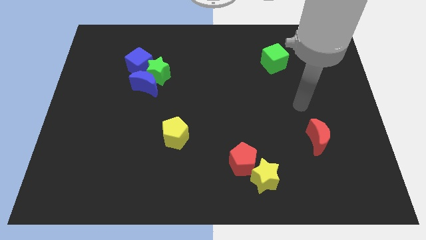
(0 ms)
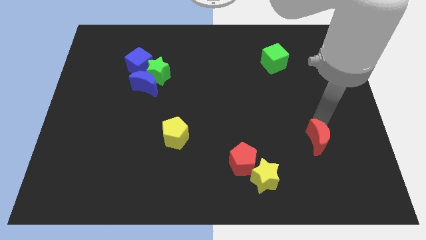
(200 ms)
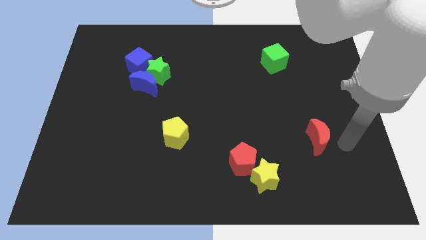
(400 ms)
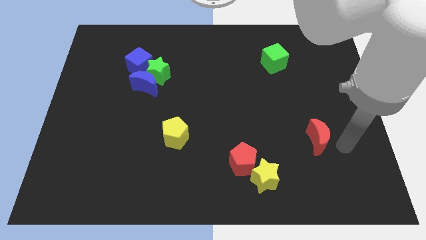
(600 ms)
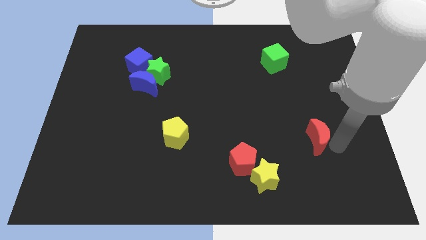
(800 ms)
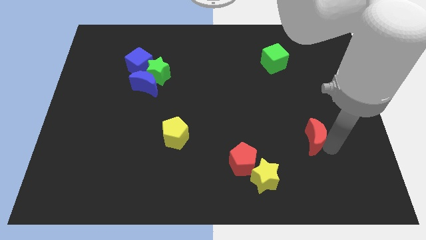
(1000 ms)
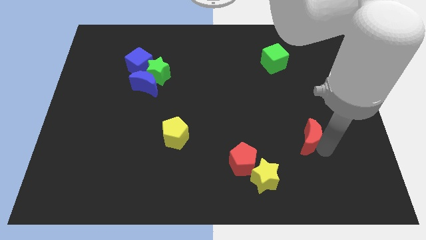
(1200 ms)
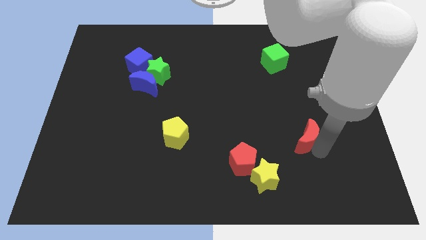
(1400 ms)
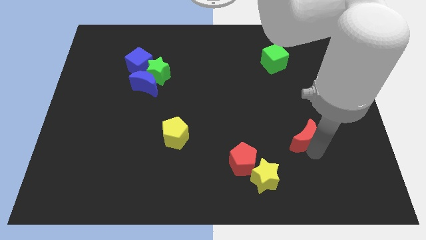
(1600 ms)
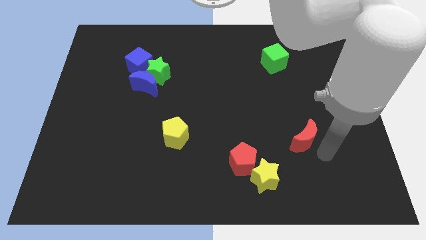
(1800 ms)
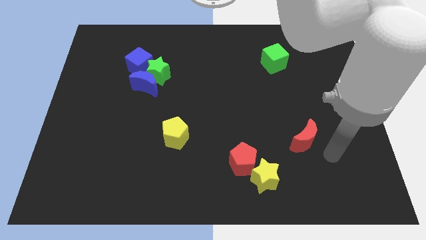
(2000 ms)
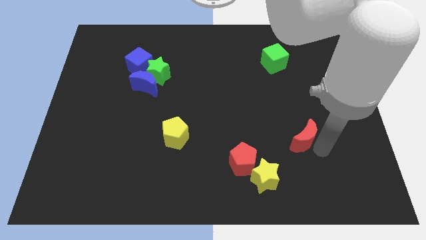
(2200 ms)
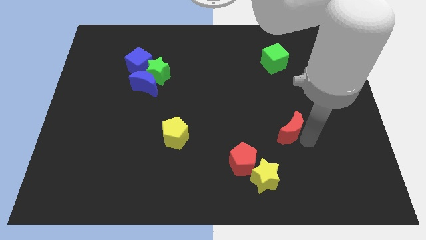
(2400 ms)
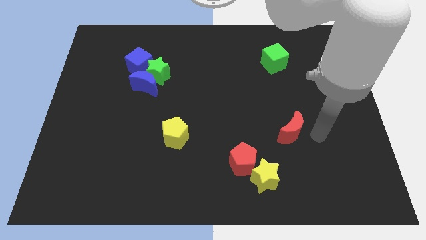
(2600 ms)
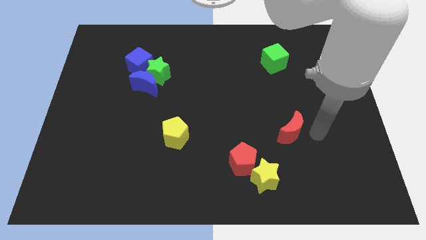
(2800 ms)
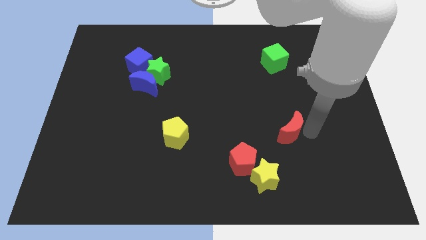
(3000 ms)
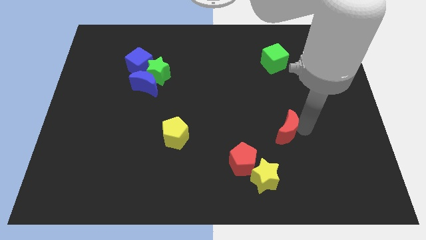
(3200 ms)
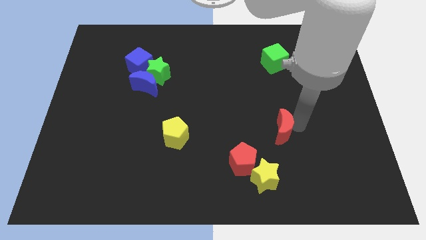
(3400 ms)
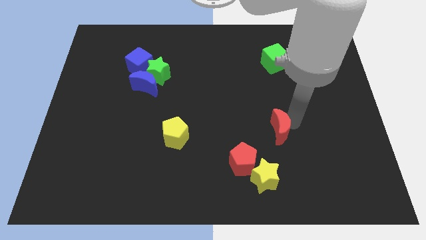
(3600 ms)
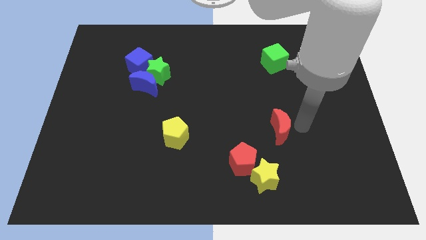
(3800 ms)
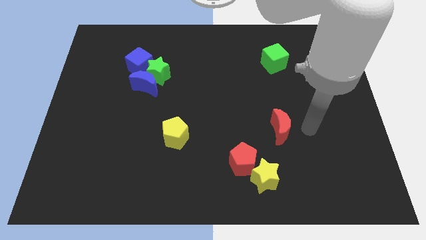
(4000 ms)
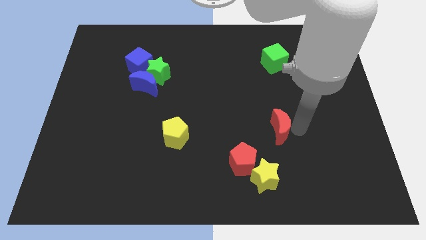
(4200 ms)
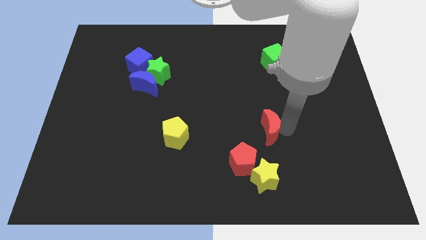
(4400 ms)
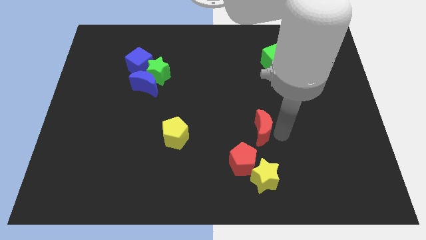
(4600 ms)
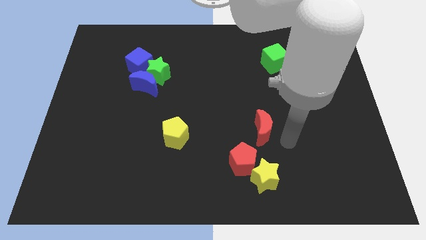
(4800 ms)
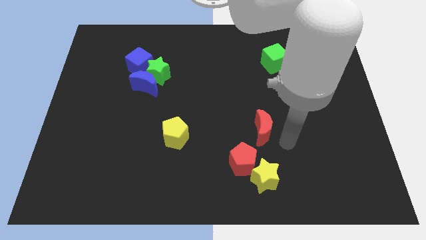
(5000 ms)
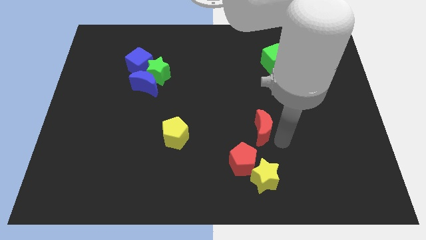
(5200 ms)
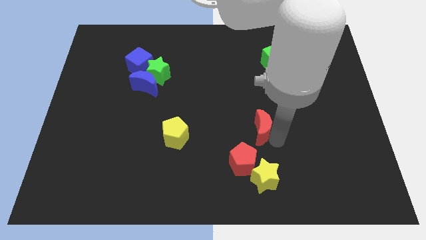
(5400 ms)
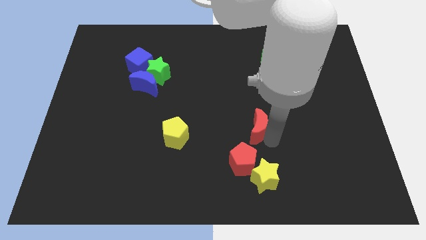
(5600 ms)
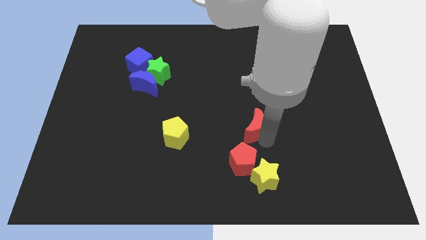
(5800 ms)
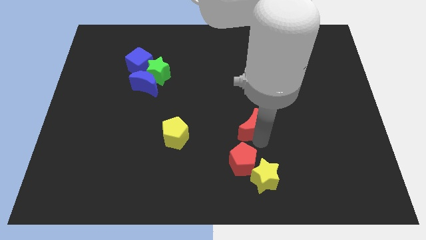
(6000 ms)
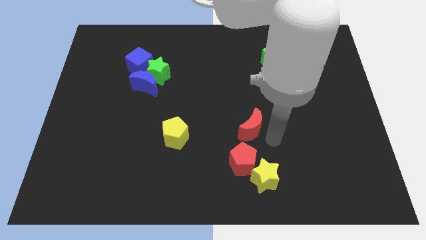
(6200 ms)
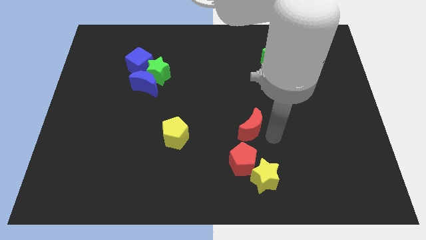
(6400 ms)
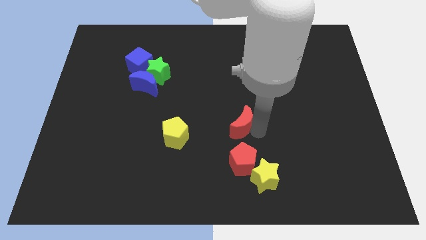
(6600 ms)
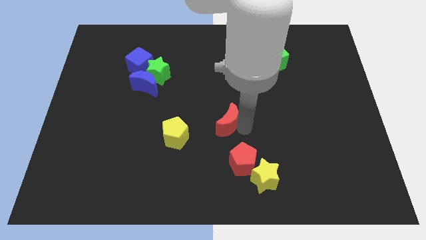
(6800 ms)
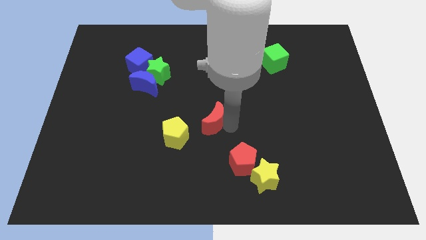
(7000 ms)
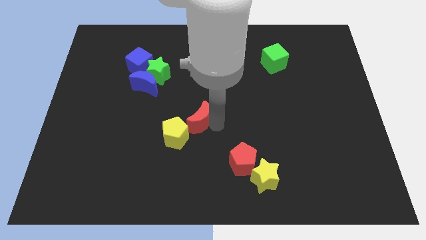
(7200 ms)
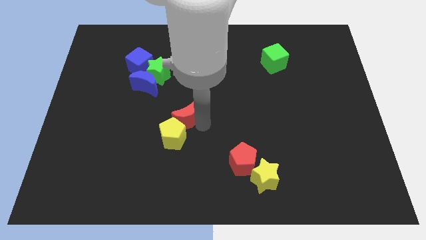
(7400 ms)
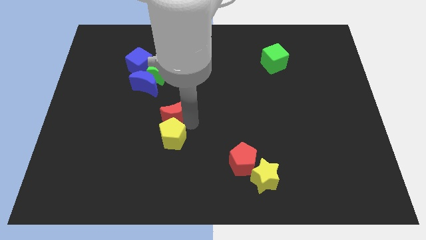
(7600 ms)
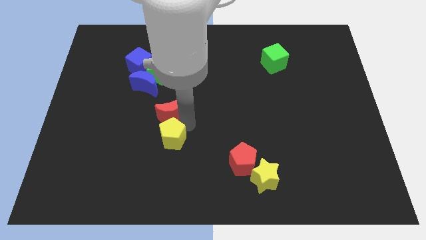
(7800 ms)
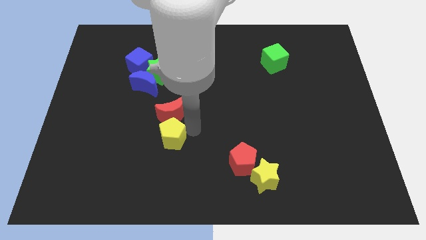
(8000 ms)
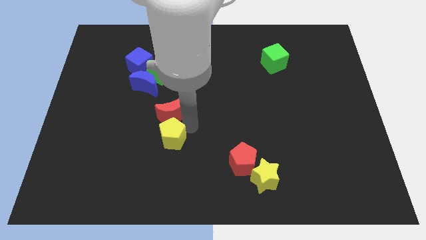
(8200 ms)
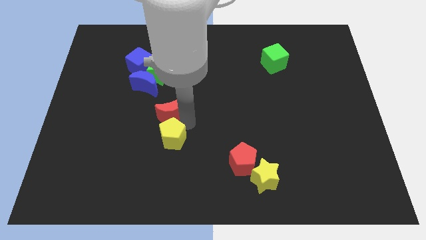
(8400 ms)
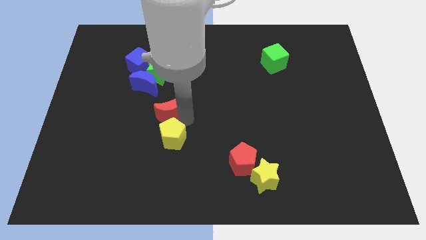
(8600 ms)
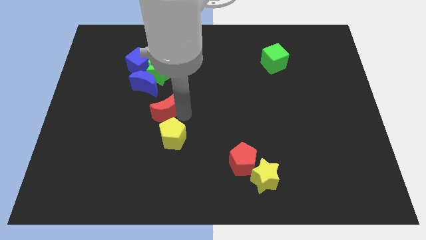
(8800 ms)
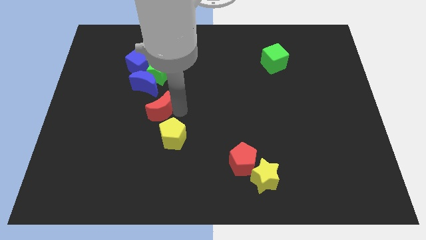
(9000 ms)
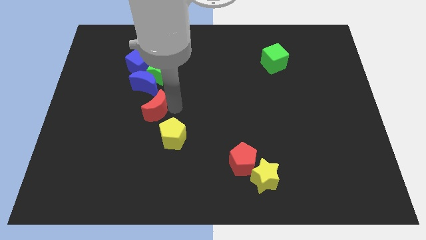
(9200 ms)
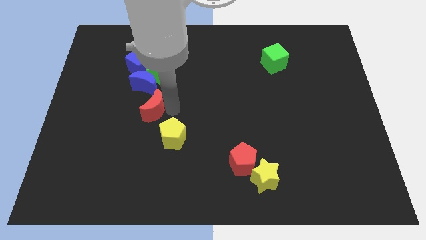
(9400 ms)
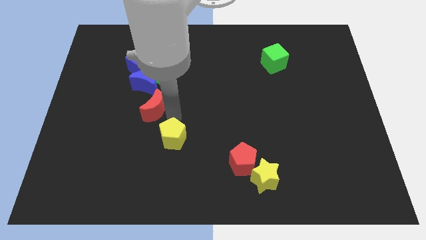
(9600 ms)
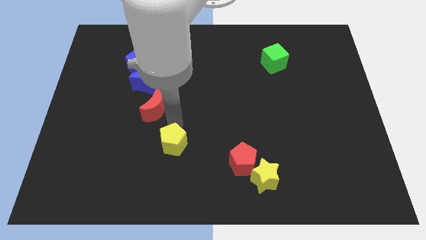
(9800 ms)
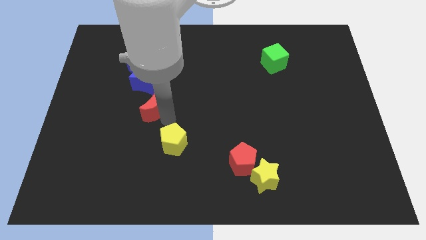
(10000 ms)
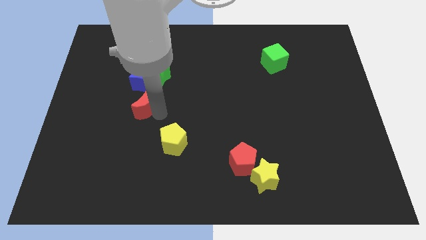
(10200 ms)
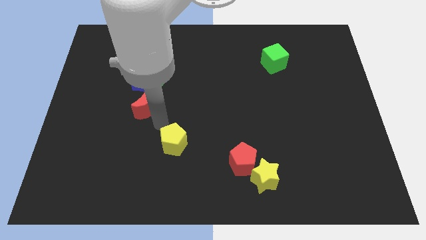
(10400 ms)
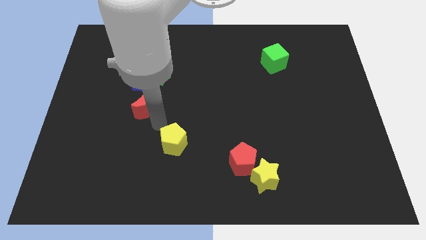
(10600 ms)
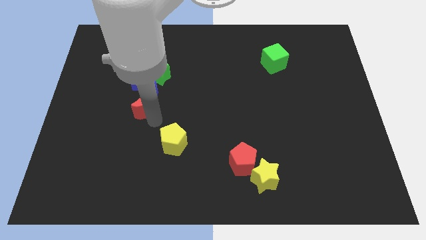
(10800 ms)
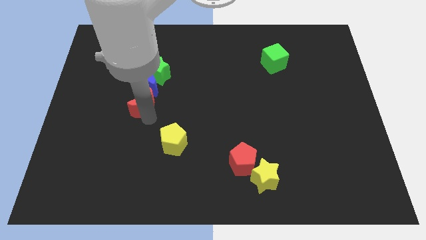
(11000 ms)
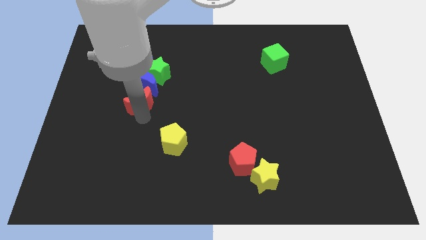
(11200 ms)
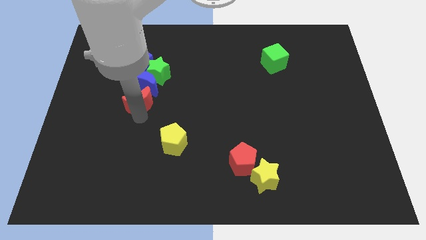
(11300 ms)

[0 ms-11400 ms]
put the red moon to the bottom left side of the green star

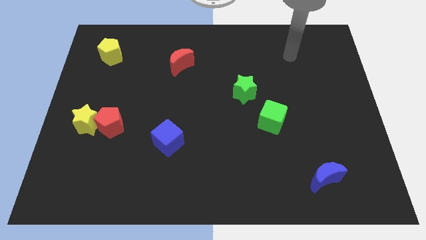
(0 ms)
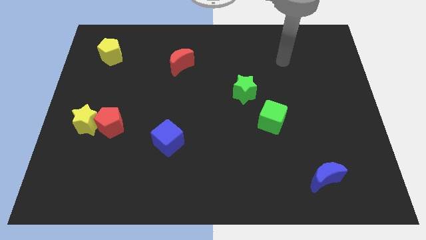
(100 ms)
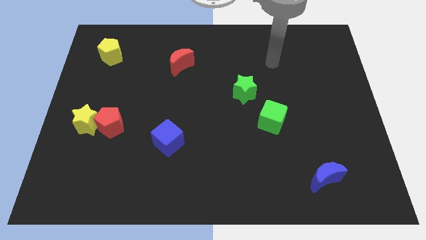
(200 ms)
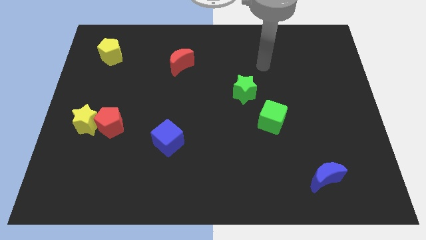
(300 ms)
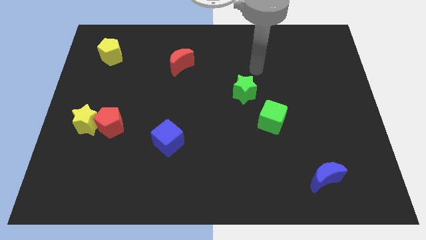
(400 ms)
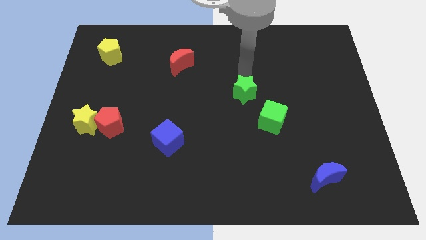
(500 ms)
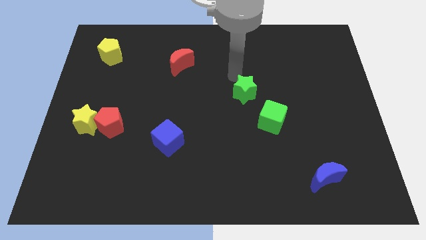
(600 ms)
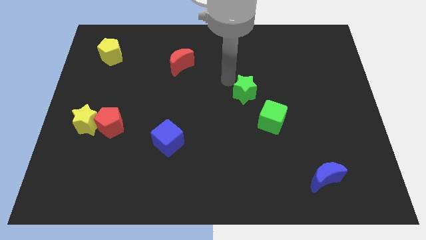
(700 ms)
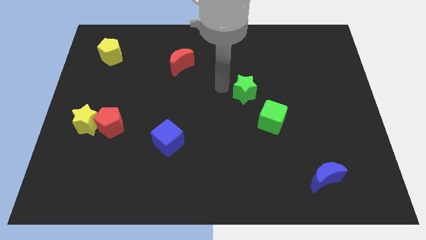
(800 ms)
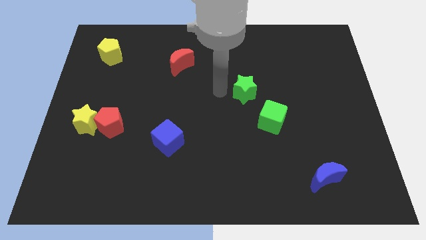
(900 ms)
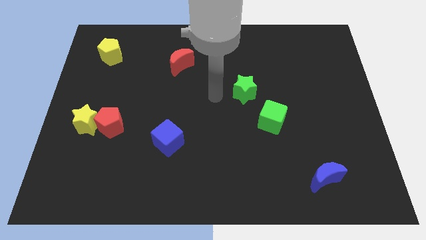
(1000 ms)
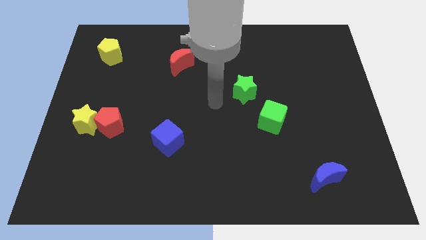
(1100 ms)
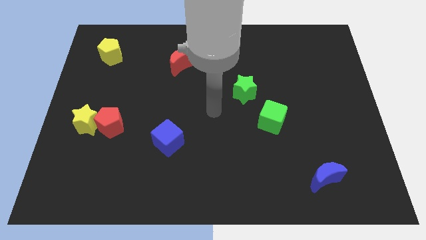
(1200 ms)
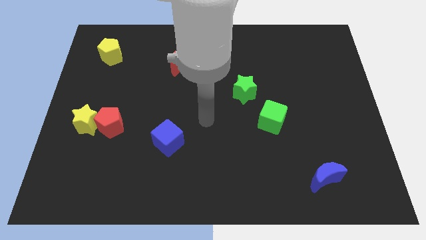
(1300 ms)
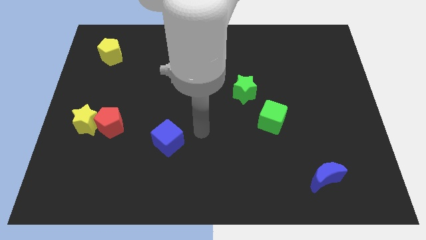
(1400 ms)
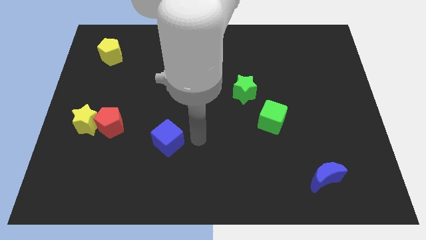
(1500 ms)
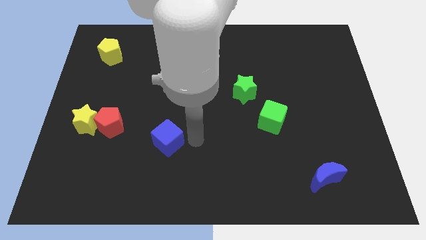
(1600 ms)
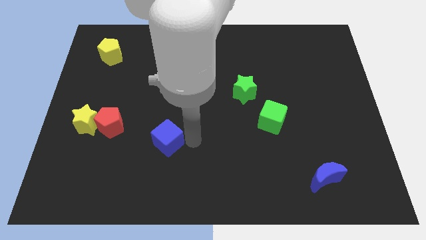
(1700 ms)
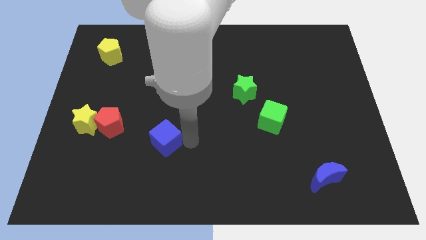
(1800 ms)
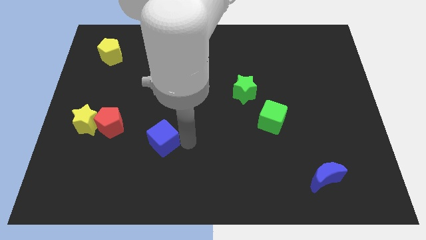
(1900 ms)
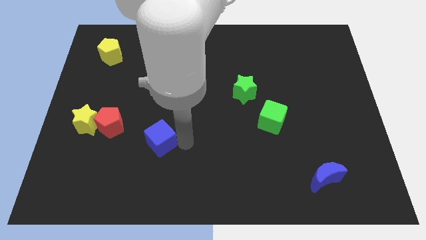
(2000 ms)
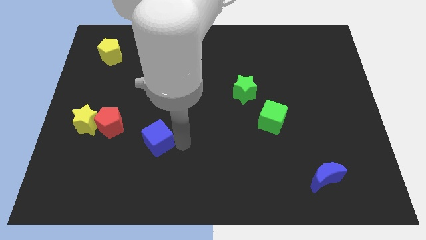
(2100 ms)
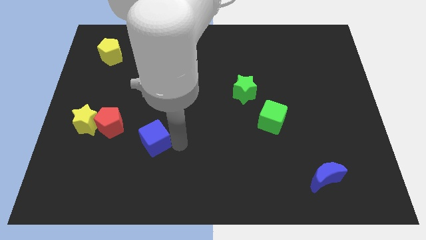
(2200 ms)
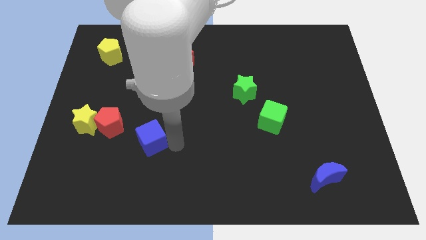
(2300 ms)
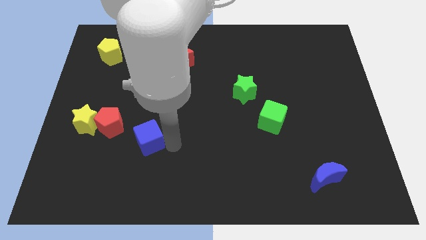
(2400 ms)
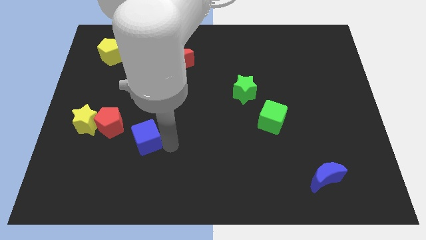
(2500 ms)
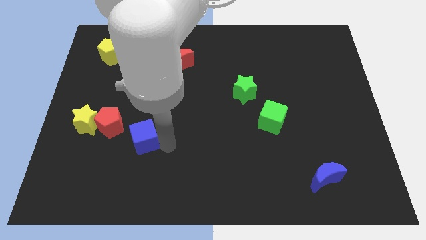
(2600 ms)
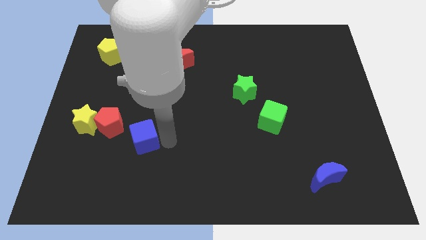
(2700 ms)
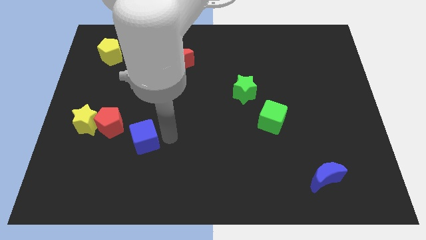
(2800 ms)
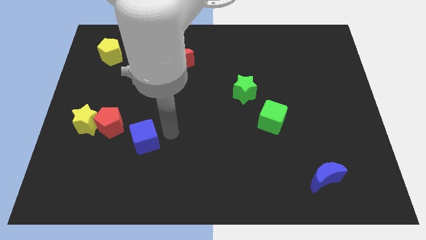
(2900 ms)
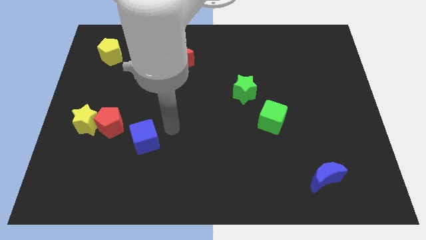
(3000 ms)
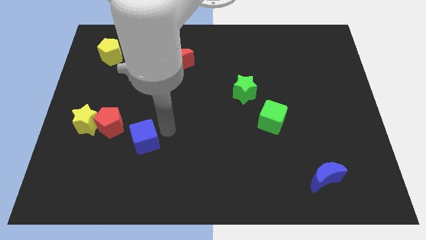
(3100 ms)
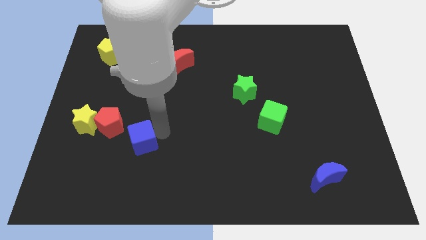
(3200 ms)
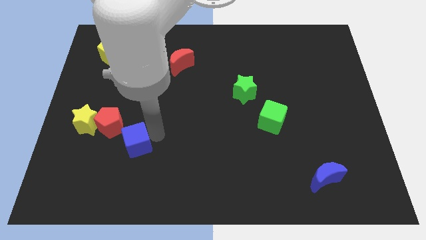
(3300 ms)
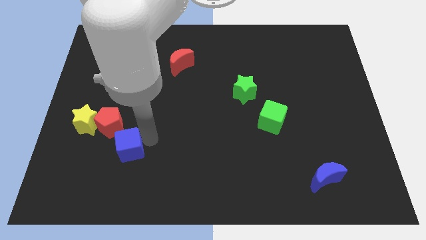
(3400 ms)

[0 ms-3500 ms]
slide the blue cube to the bottom right of the yellow star
